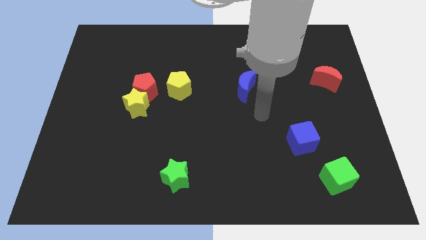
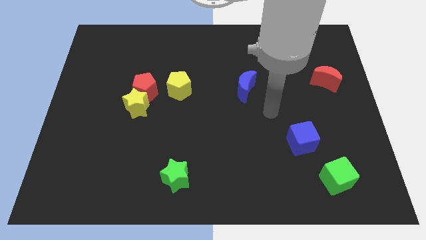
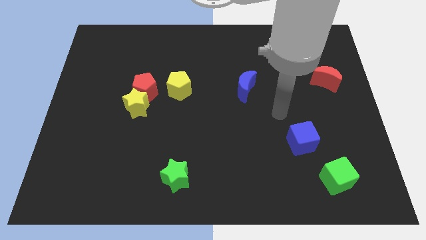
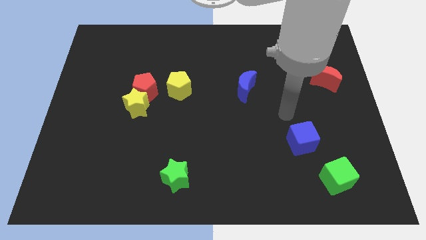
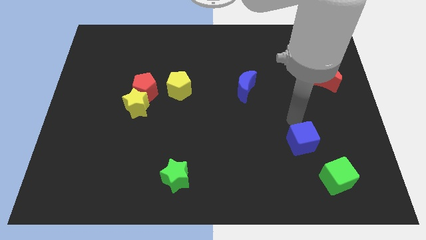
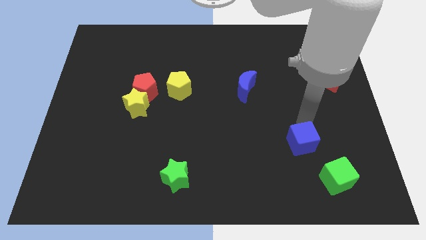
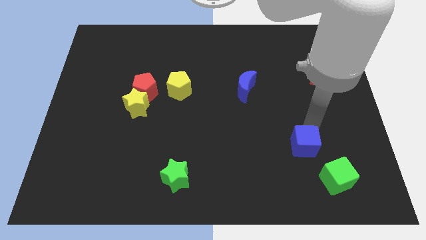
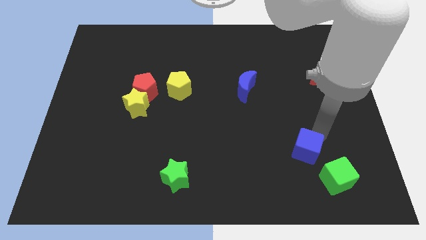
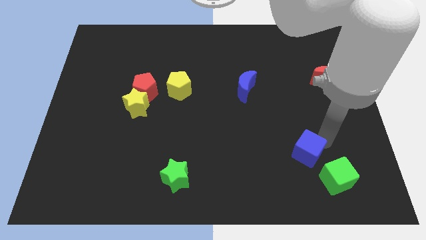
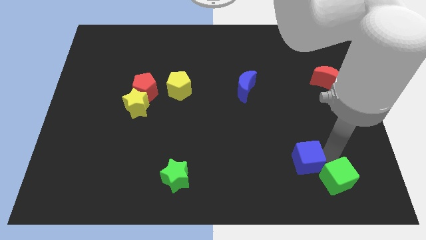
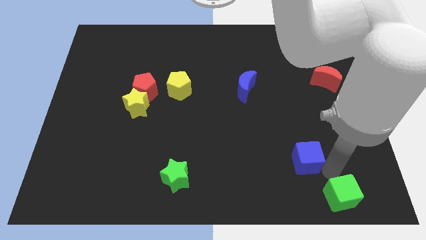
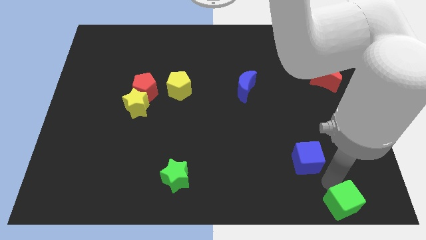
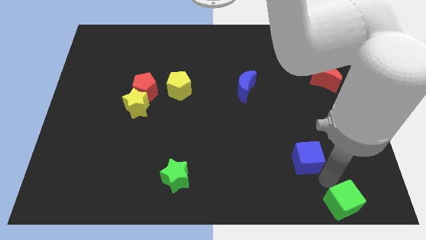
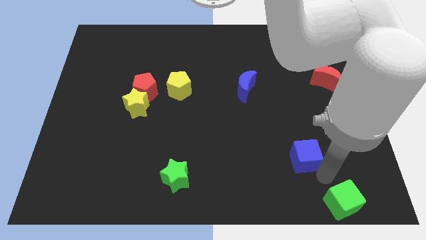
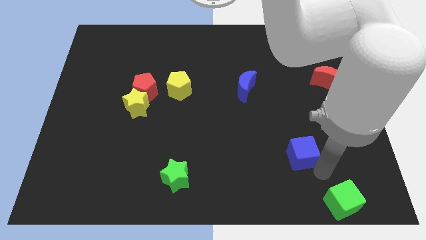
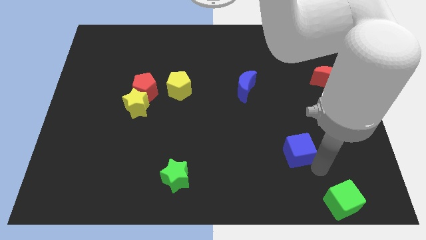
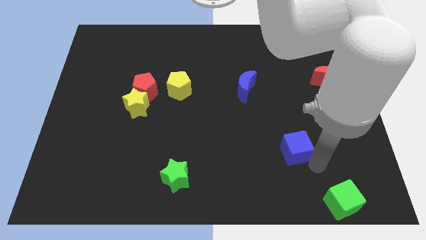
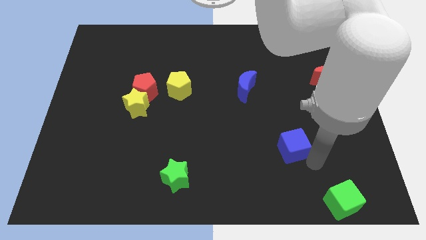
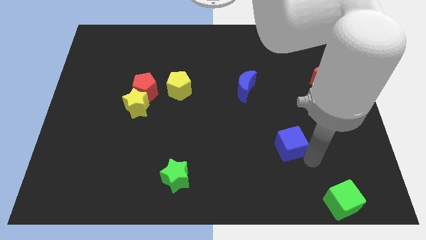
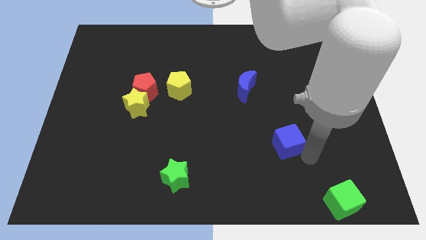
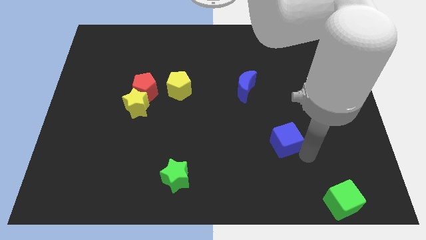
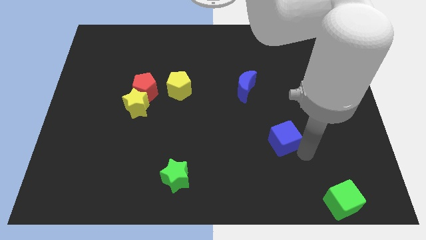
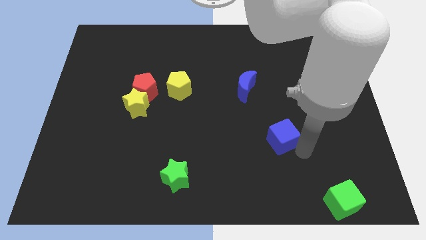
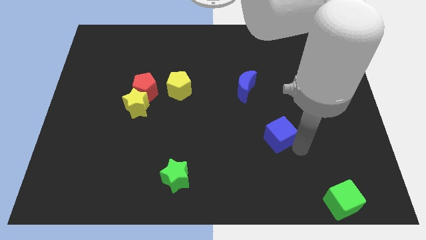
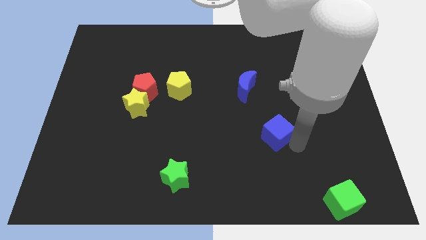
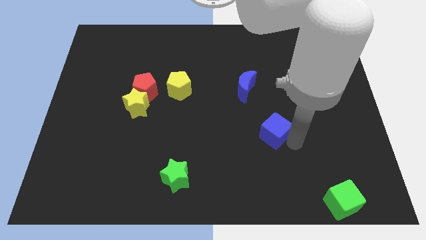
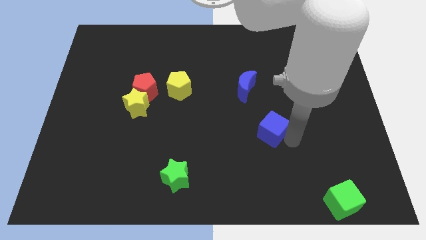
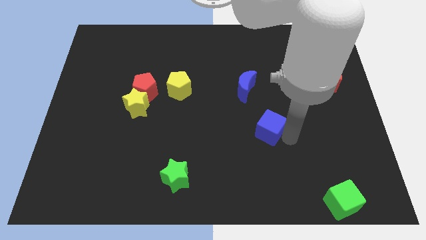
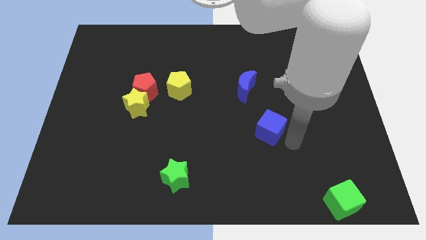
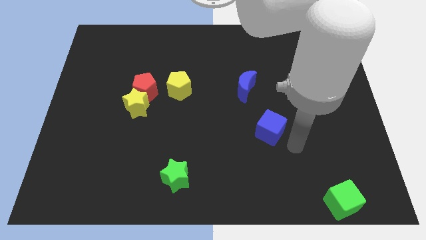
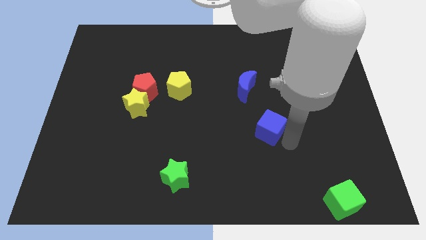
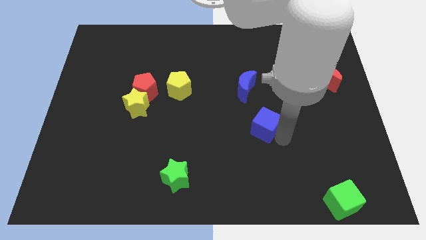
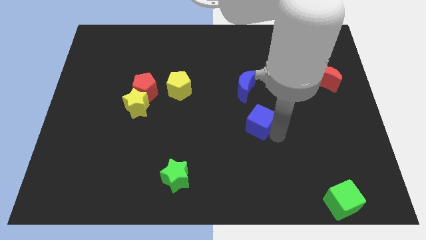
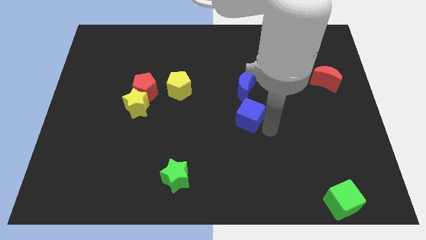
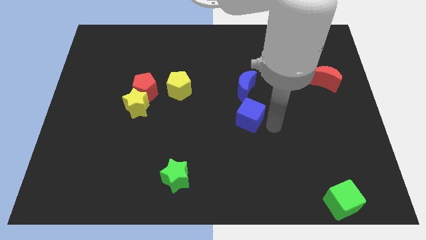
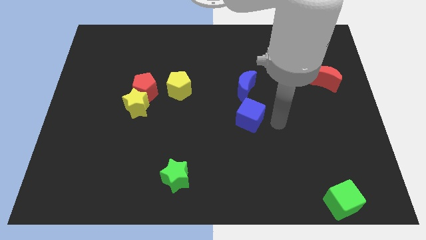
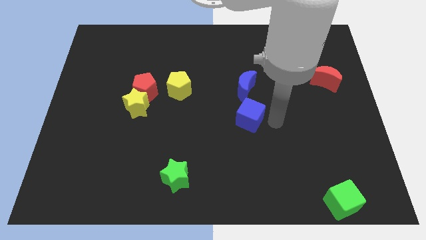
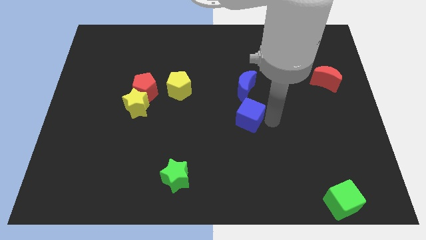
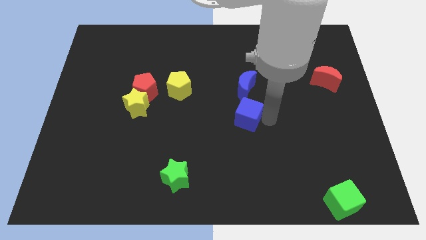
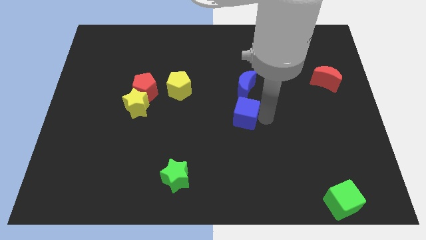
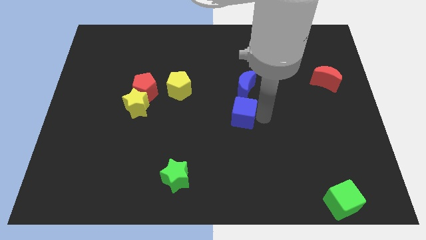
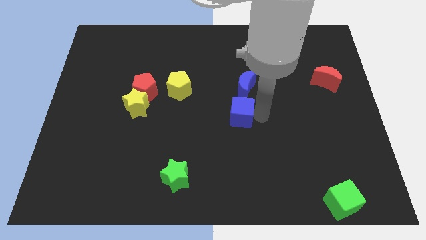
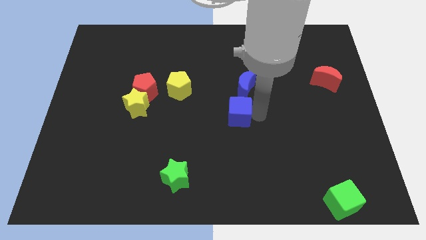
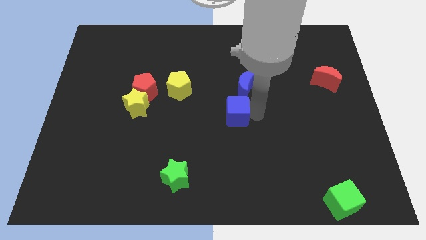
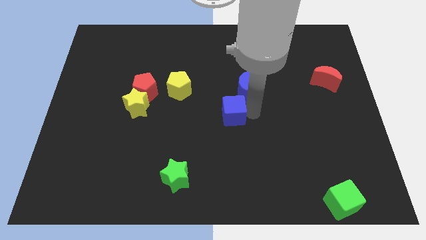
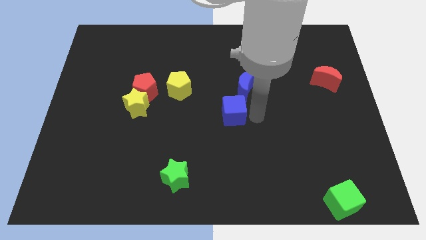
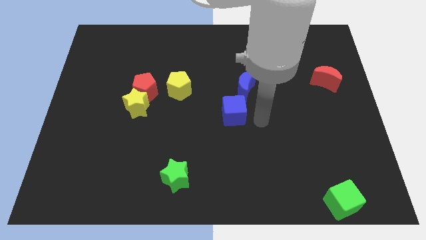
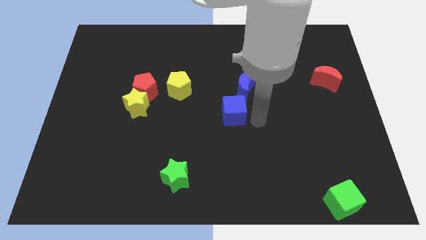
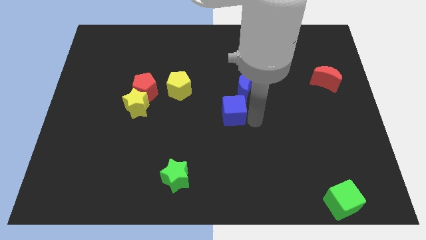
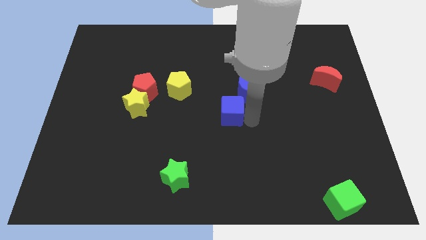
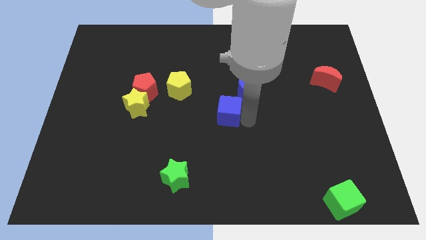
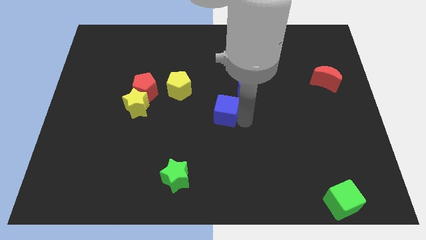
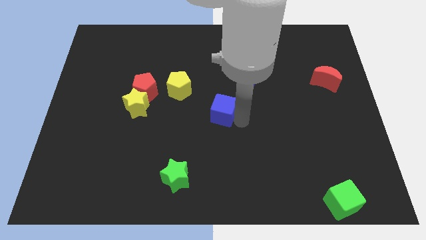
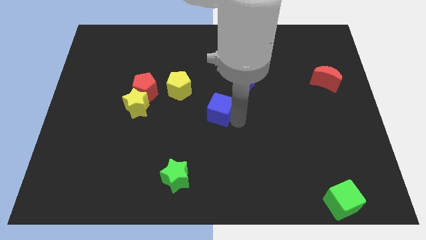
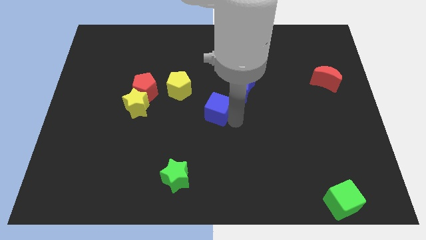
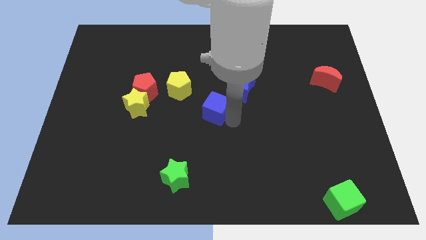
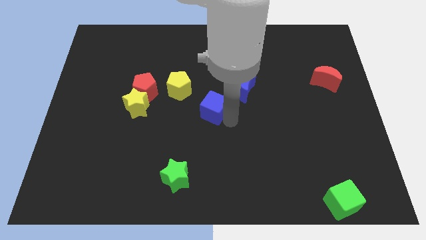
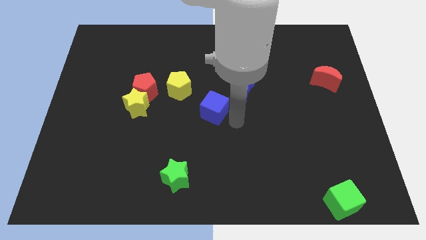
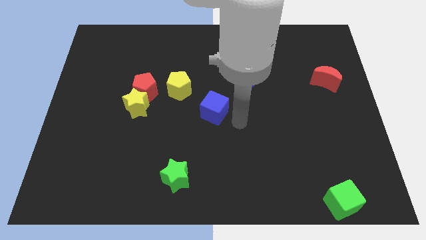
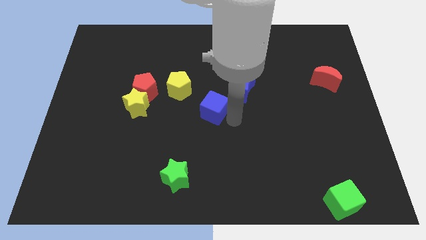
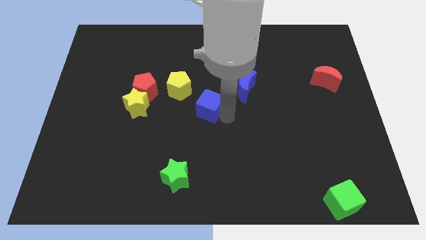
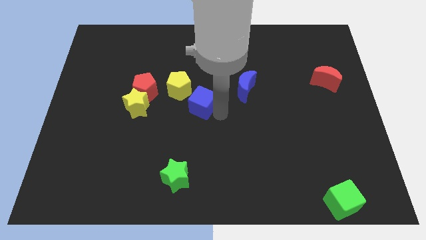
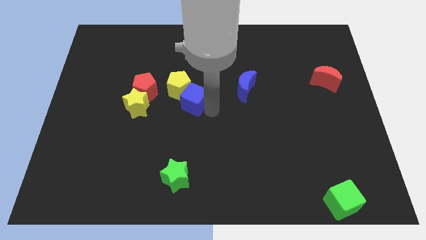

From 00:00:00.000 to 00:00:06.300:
move the blue cube to the yellow pentagon

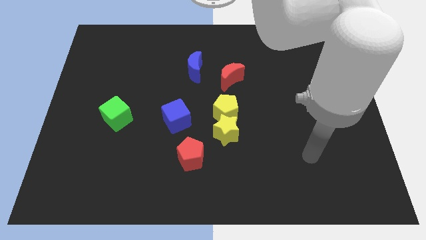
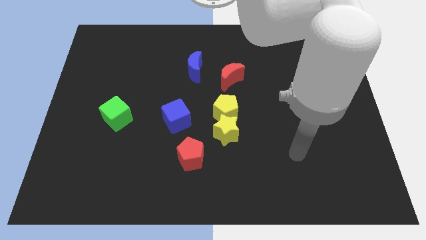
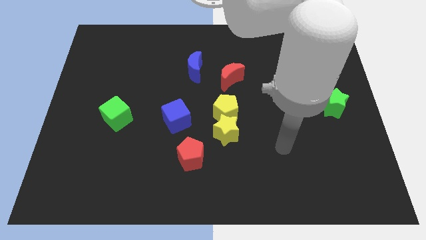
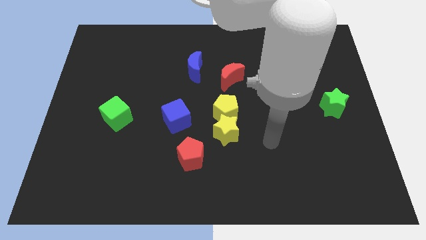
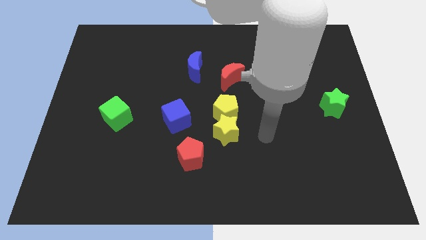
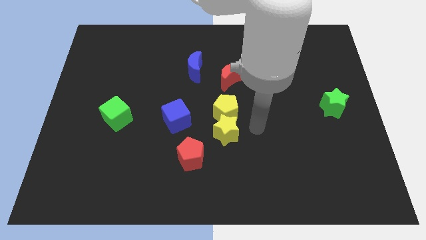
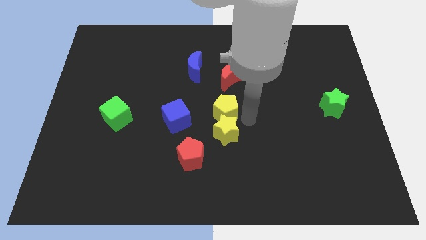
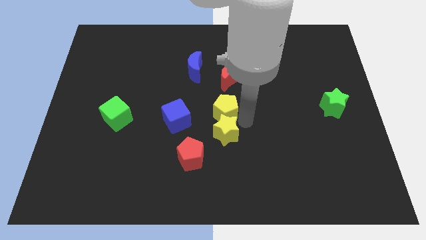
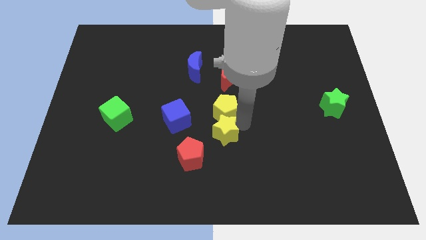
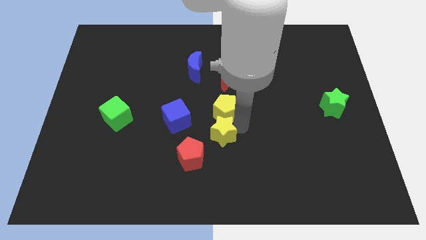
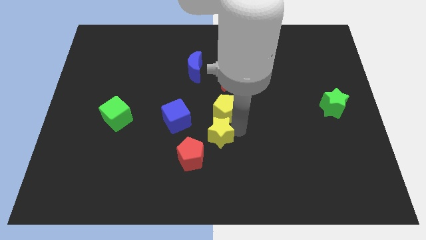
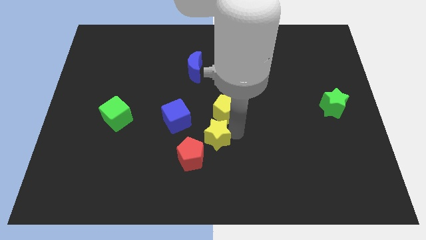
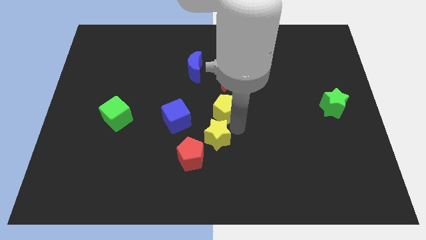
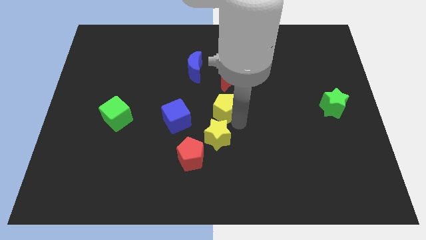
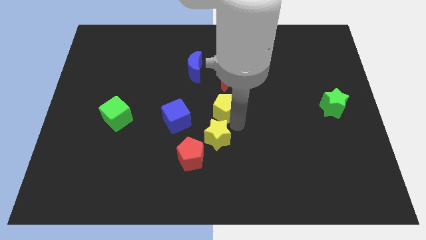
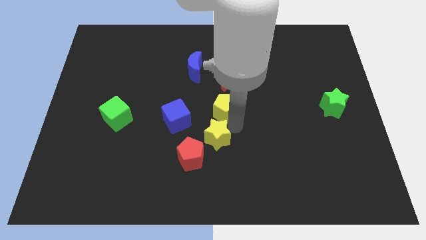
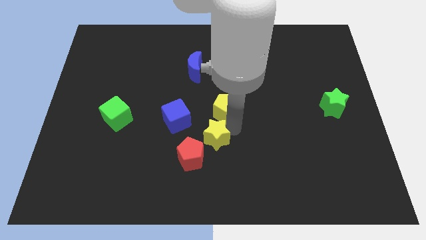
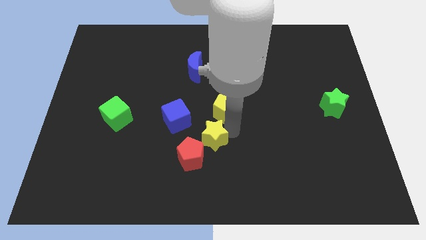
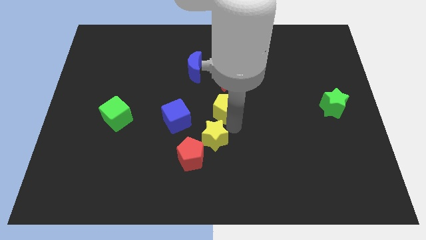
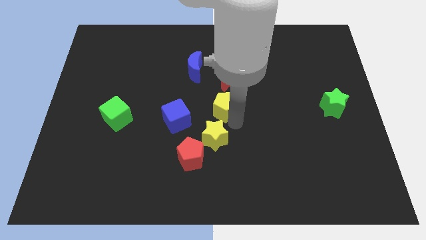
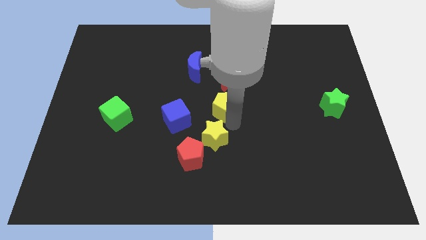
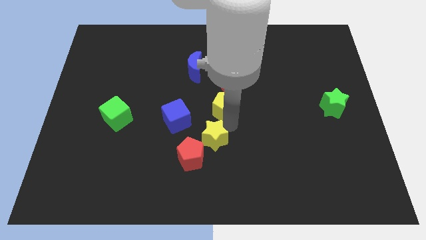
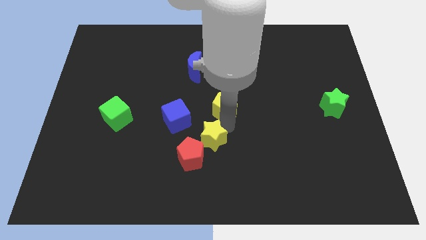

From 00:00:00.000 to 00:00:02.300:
put the yellow star close to the red pentagon
